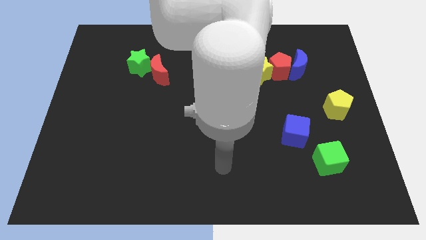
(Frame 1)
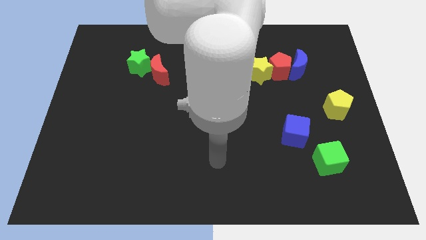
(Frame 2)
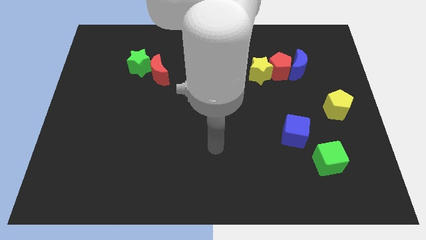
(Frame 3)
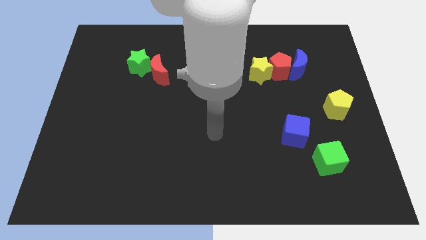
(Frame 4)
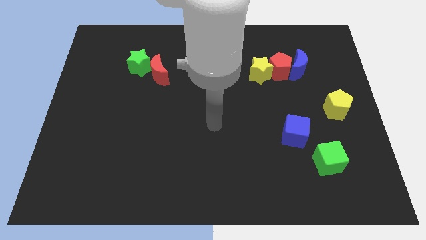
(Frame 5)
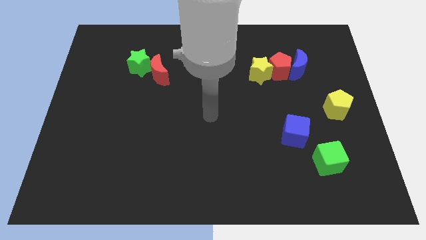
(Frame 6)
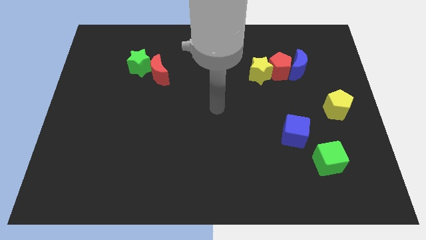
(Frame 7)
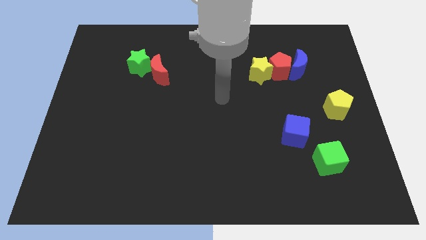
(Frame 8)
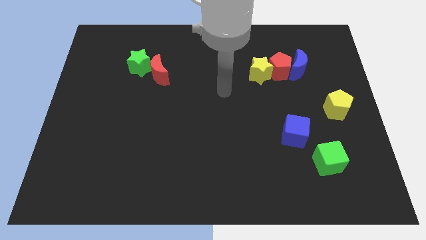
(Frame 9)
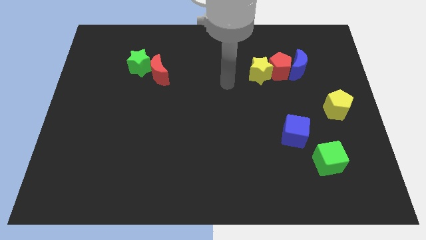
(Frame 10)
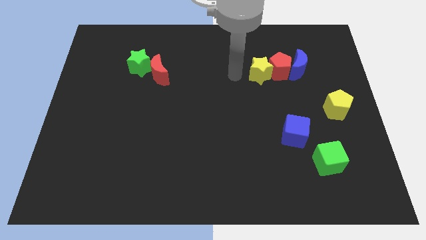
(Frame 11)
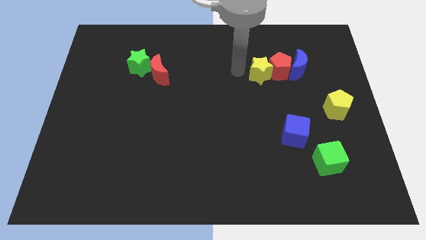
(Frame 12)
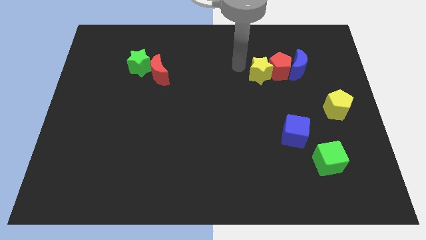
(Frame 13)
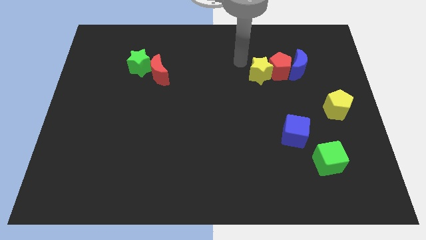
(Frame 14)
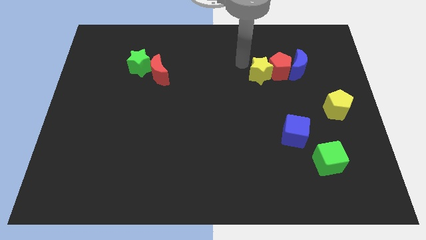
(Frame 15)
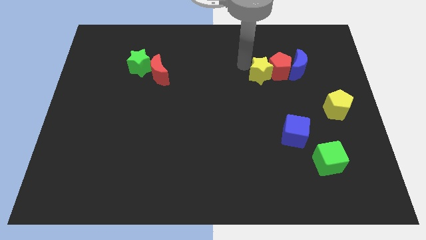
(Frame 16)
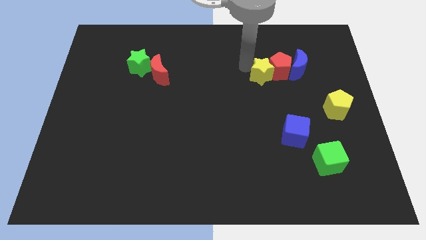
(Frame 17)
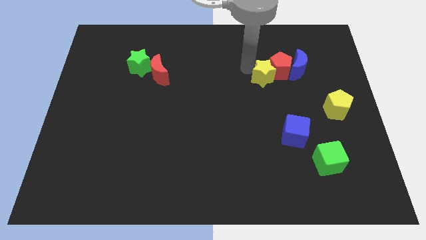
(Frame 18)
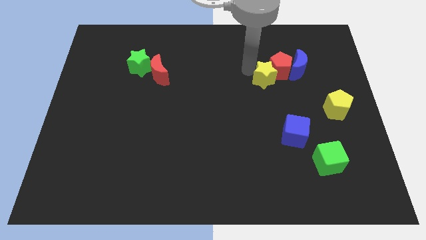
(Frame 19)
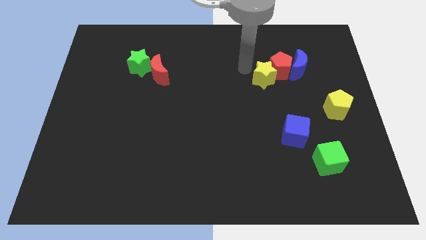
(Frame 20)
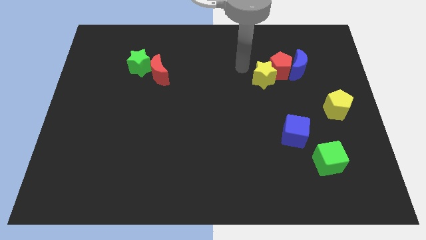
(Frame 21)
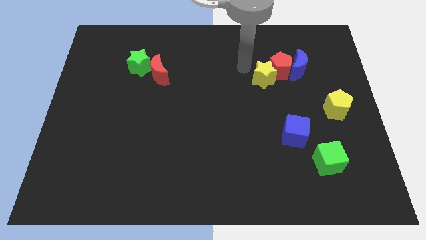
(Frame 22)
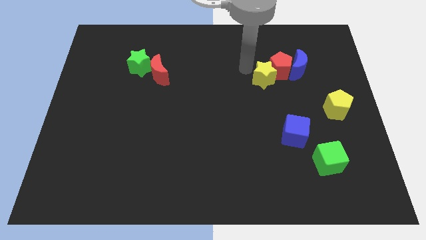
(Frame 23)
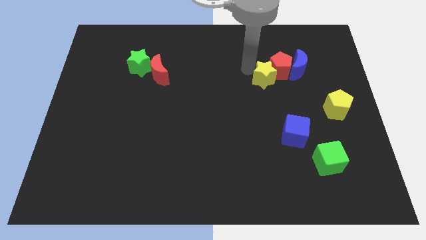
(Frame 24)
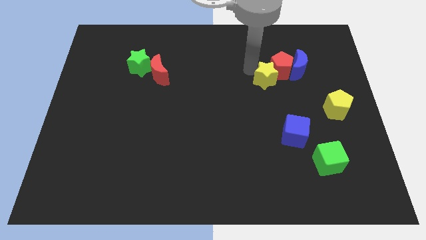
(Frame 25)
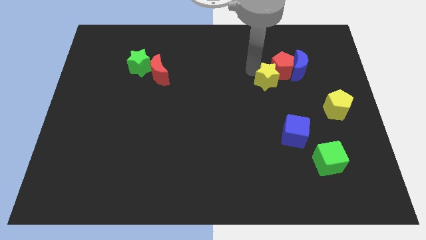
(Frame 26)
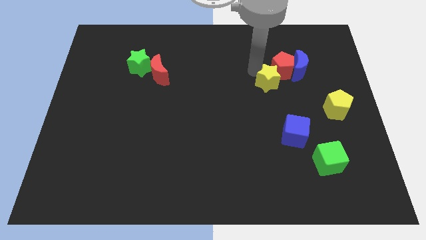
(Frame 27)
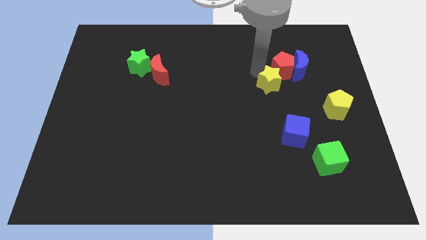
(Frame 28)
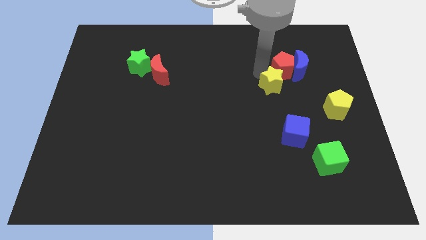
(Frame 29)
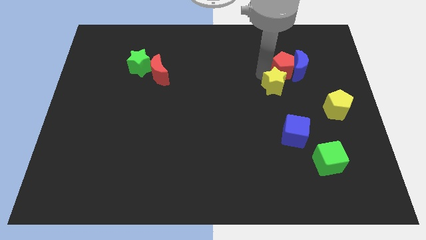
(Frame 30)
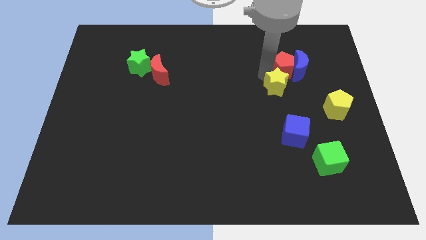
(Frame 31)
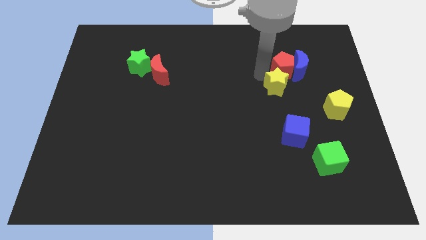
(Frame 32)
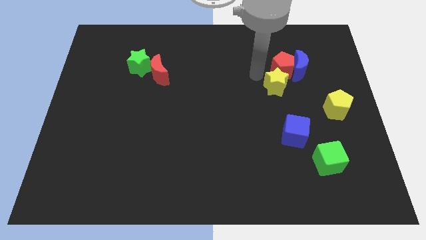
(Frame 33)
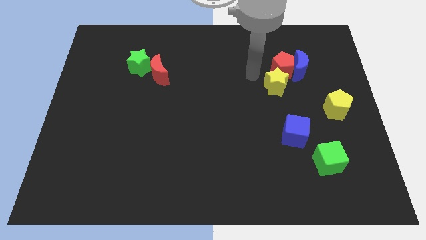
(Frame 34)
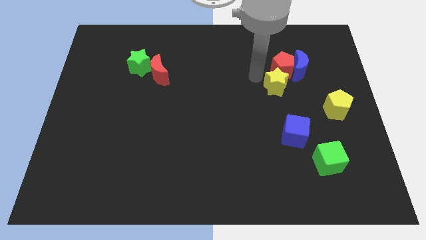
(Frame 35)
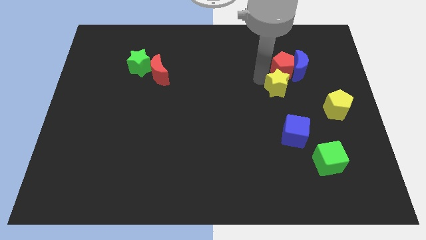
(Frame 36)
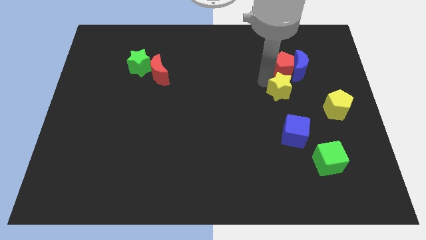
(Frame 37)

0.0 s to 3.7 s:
push the yellow star downwards and to the right diagonally slightly

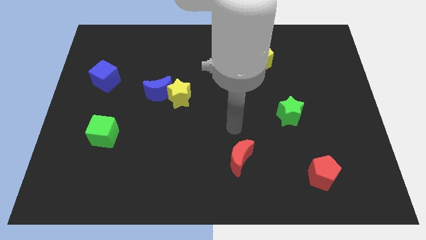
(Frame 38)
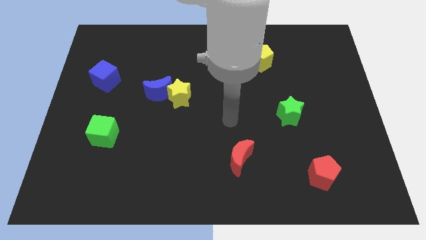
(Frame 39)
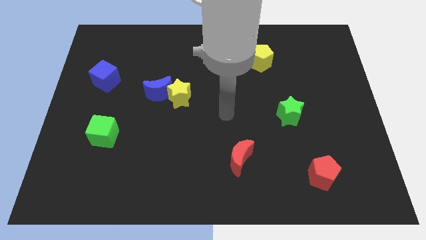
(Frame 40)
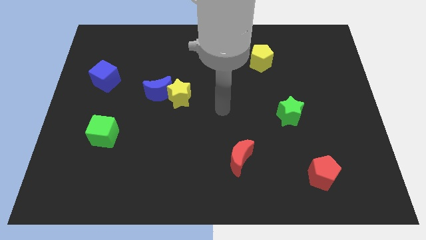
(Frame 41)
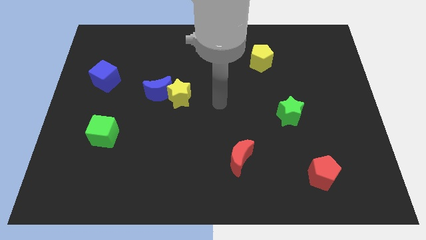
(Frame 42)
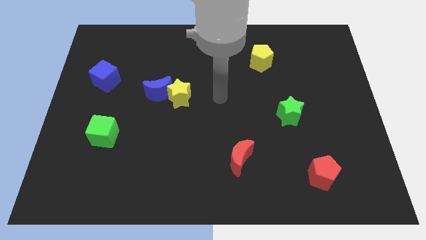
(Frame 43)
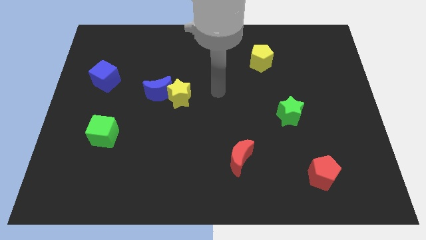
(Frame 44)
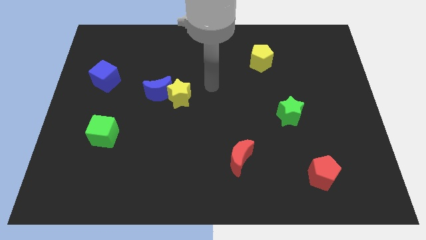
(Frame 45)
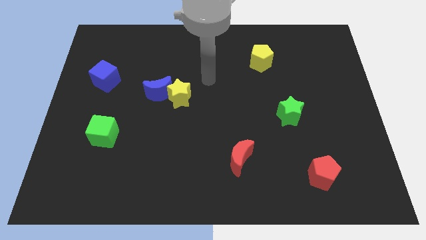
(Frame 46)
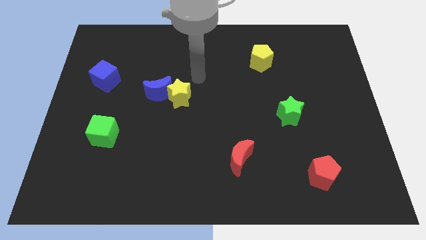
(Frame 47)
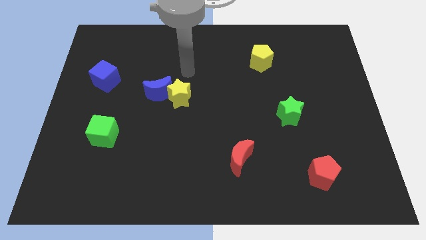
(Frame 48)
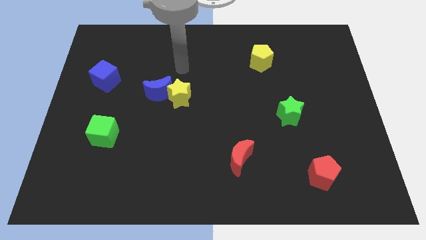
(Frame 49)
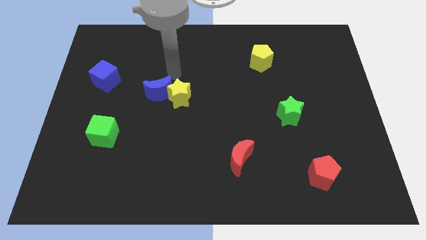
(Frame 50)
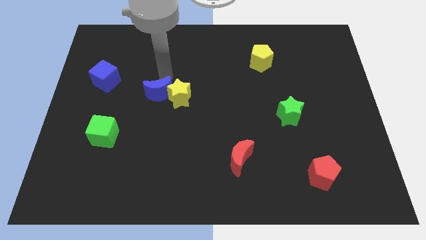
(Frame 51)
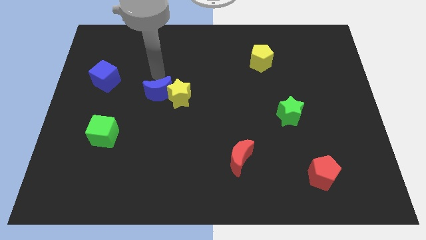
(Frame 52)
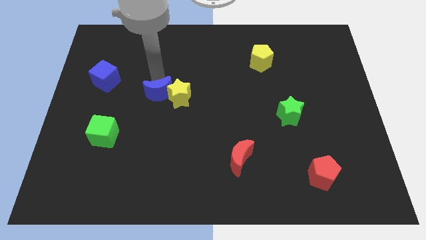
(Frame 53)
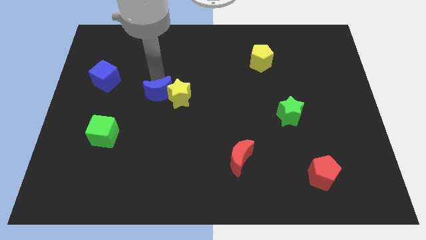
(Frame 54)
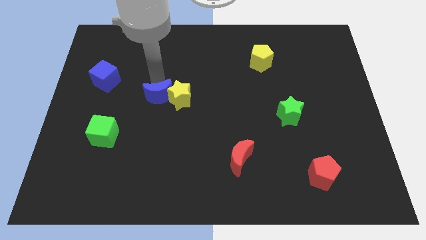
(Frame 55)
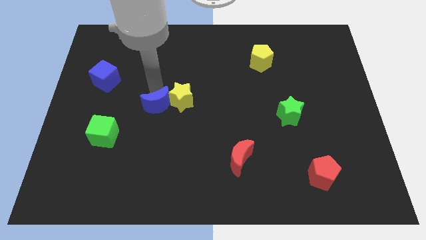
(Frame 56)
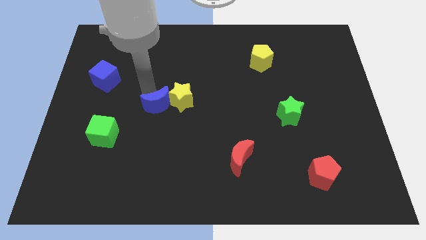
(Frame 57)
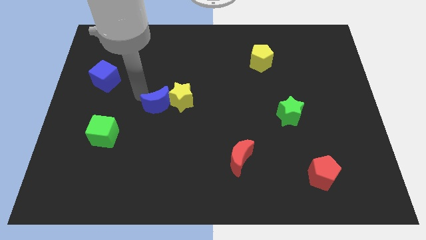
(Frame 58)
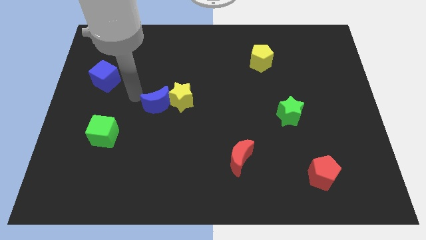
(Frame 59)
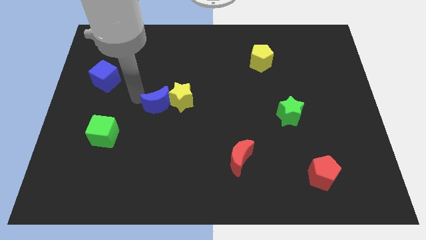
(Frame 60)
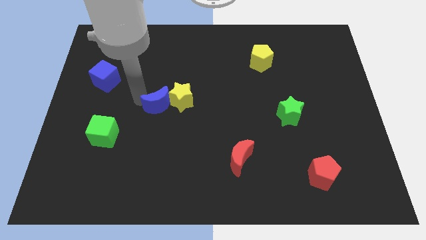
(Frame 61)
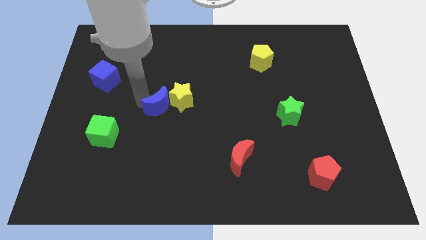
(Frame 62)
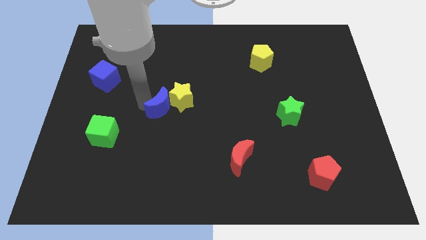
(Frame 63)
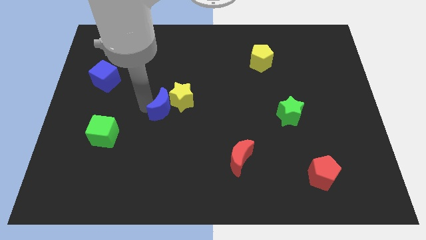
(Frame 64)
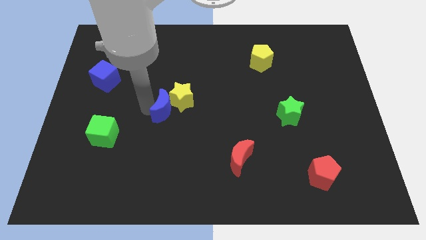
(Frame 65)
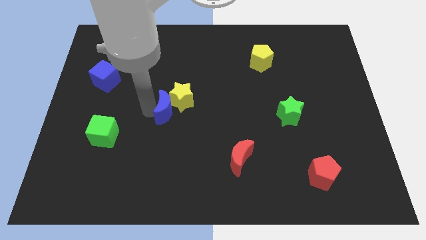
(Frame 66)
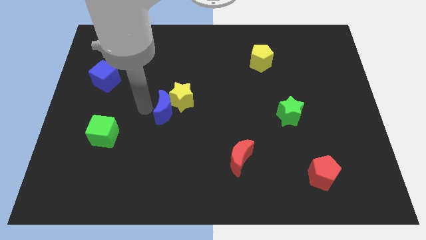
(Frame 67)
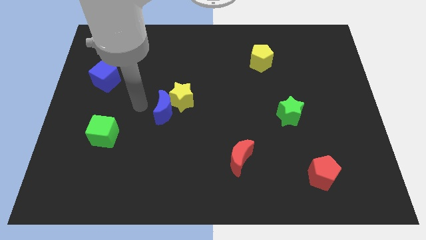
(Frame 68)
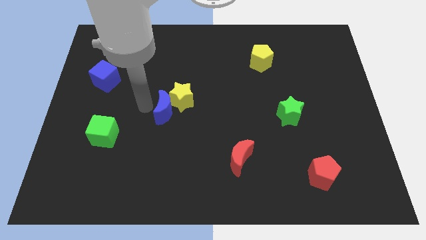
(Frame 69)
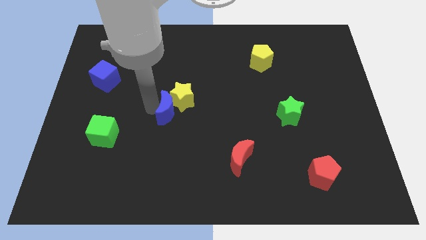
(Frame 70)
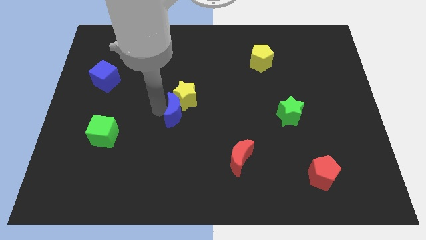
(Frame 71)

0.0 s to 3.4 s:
move the blue moon somewhat down and to the right

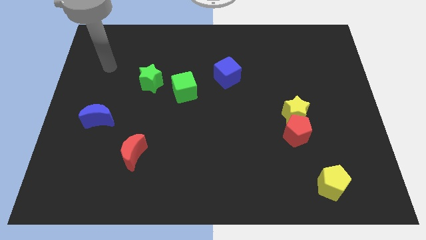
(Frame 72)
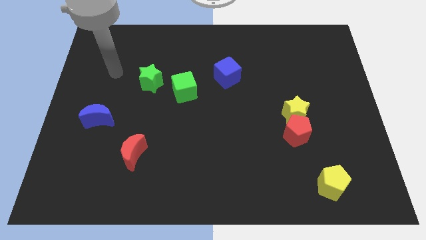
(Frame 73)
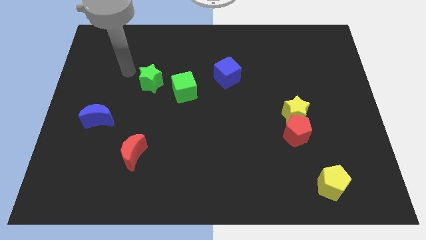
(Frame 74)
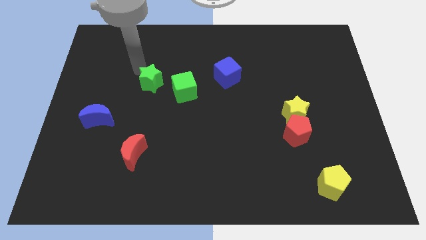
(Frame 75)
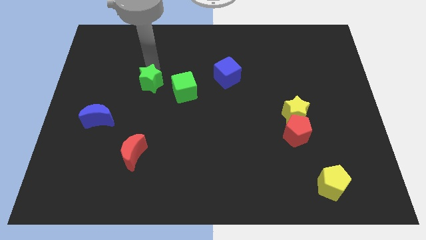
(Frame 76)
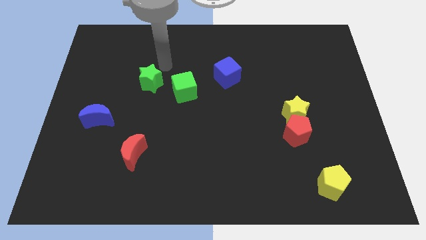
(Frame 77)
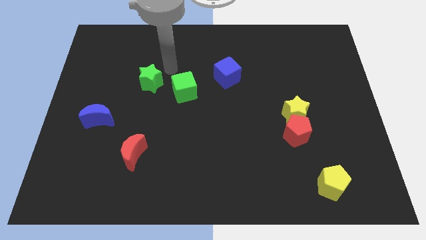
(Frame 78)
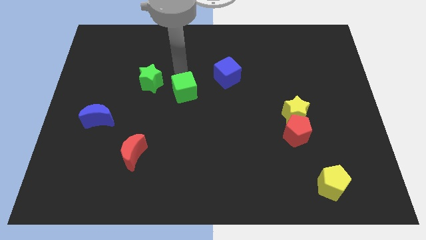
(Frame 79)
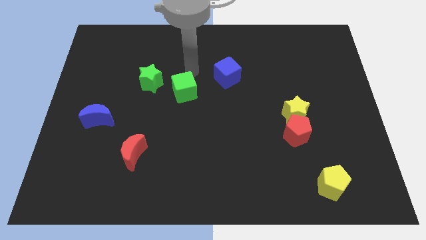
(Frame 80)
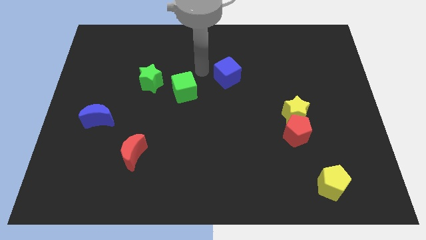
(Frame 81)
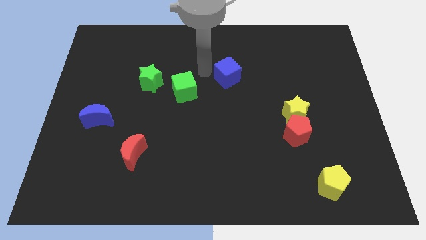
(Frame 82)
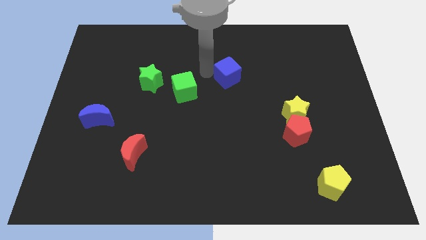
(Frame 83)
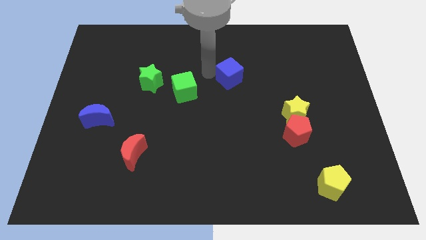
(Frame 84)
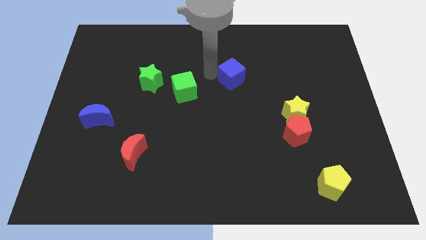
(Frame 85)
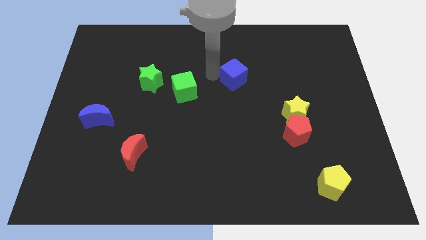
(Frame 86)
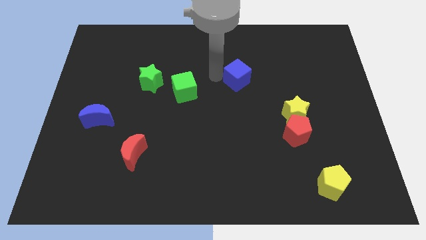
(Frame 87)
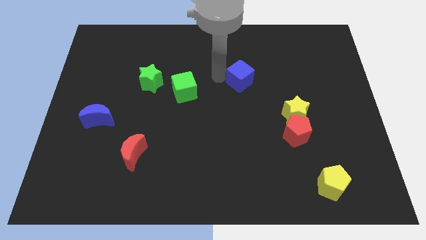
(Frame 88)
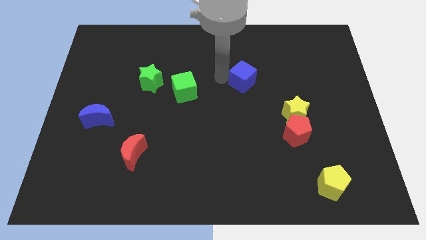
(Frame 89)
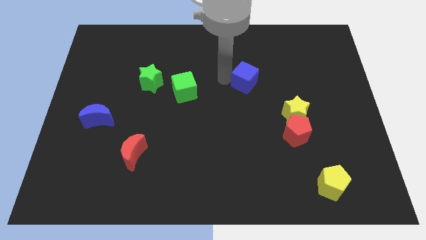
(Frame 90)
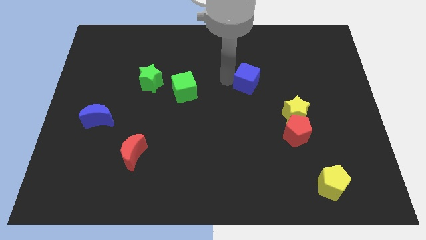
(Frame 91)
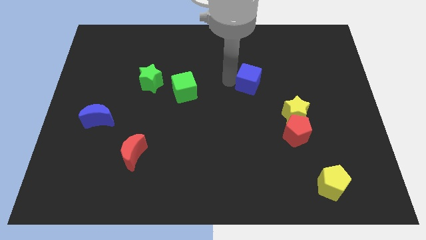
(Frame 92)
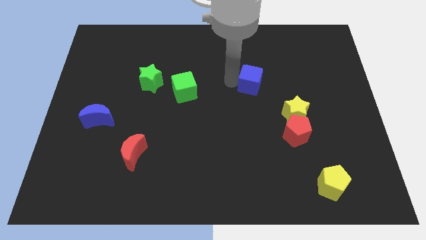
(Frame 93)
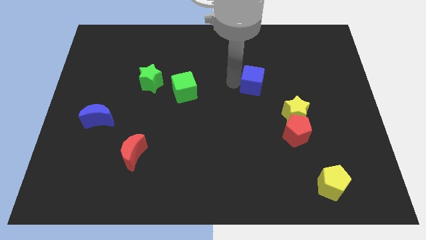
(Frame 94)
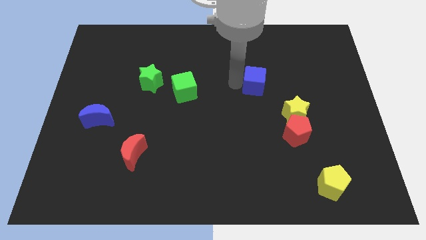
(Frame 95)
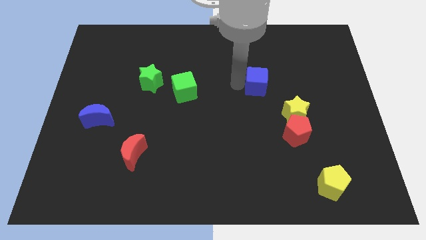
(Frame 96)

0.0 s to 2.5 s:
slide the blue cube a bit to the right
